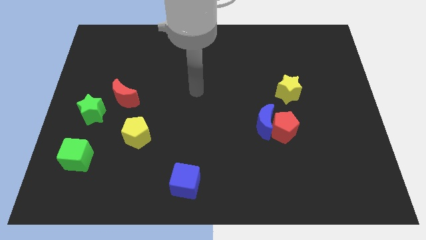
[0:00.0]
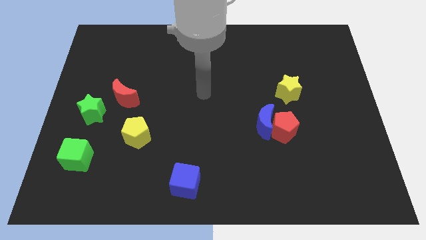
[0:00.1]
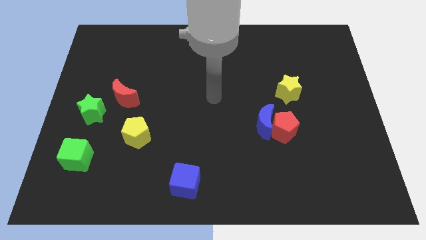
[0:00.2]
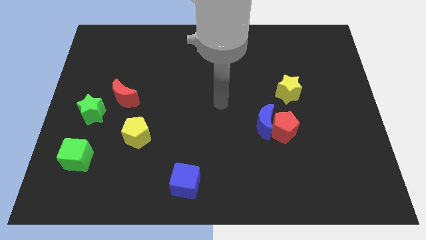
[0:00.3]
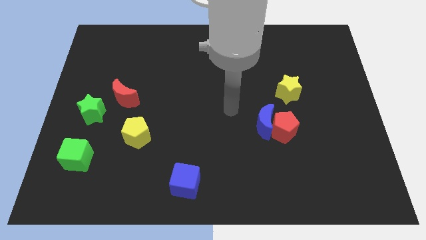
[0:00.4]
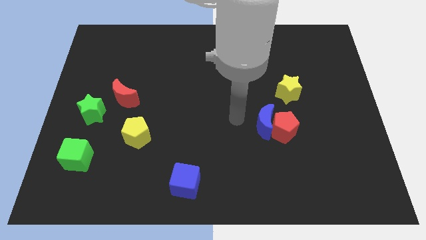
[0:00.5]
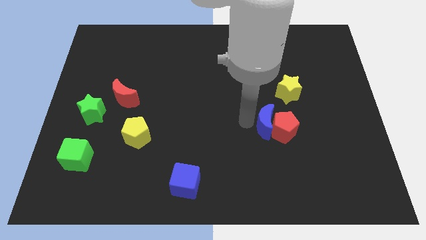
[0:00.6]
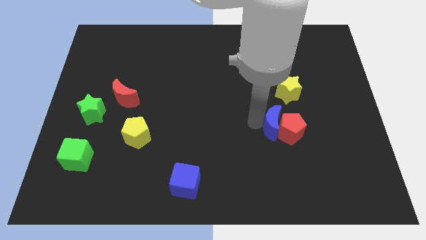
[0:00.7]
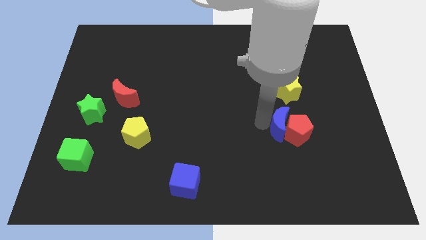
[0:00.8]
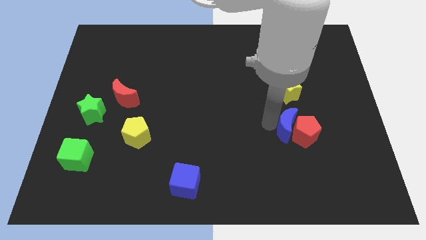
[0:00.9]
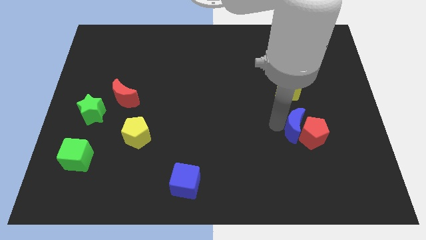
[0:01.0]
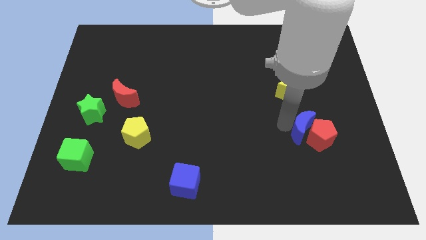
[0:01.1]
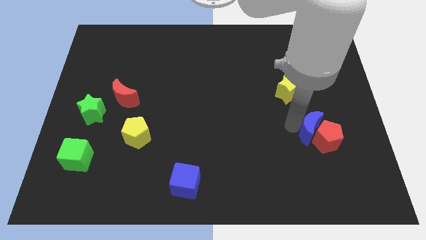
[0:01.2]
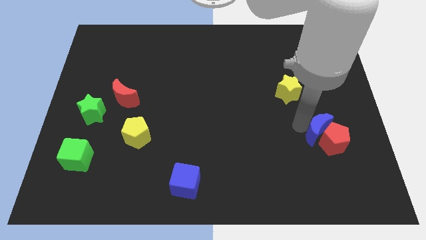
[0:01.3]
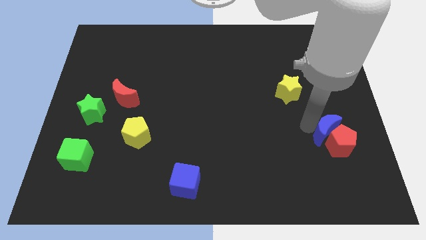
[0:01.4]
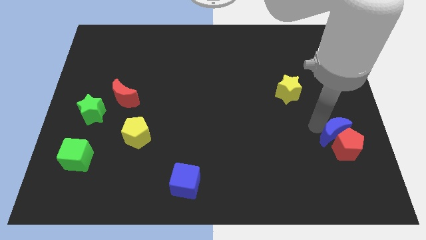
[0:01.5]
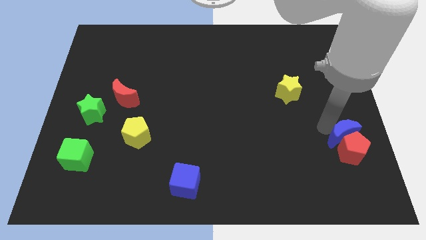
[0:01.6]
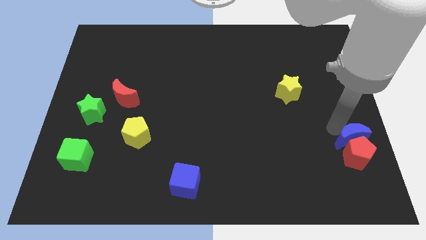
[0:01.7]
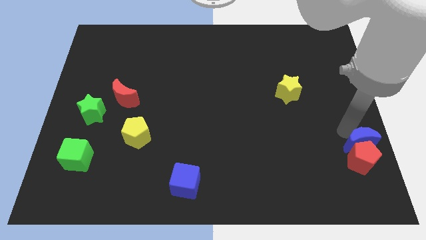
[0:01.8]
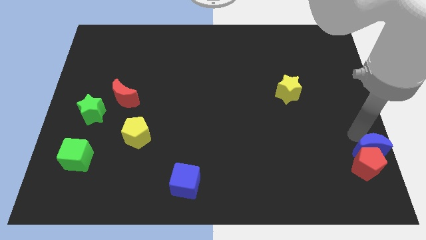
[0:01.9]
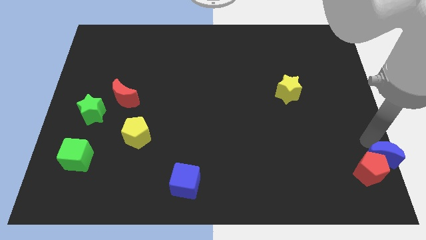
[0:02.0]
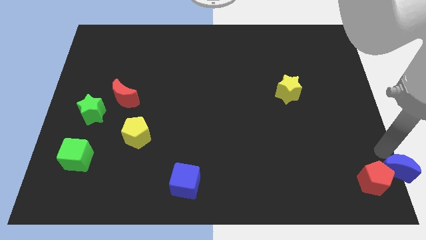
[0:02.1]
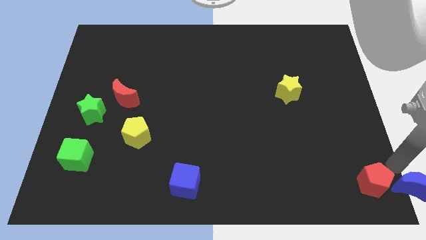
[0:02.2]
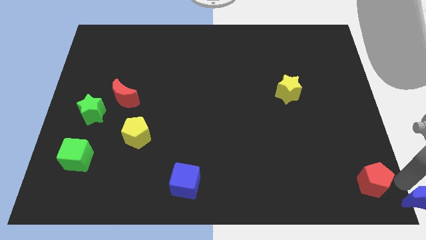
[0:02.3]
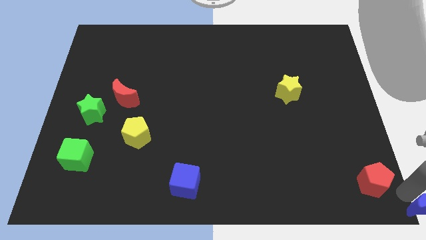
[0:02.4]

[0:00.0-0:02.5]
separate the red pentagon from the blue moon

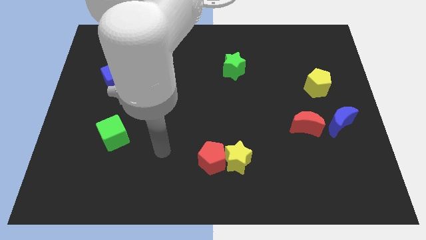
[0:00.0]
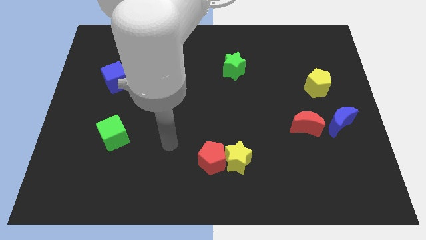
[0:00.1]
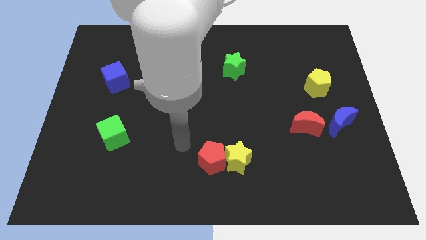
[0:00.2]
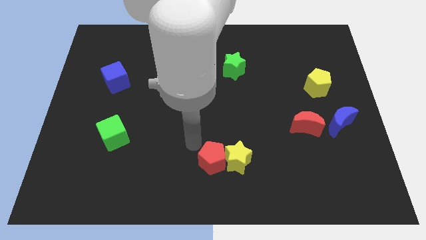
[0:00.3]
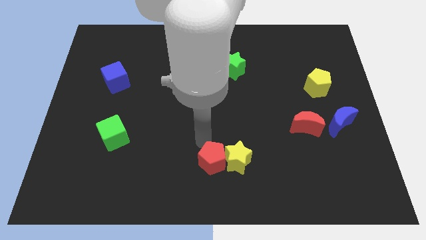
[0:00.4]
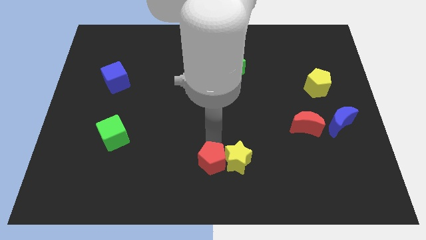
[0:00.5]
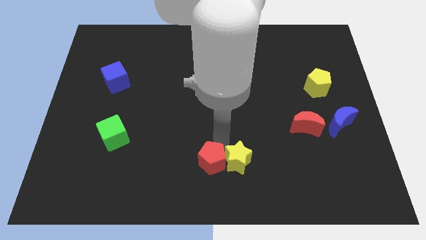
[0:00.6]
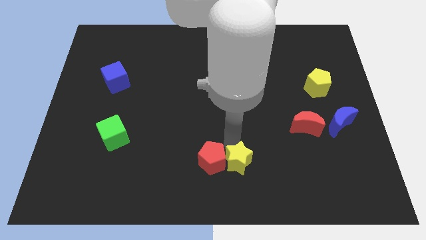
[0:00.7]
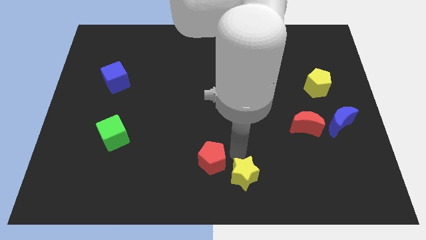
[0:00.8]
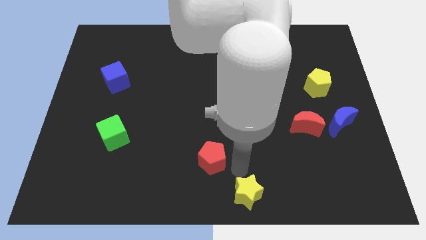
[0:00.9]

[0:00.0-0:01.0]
pull the red pentagon apart from the yellow star

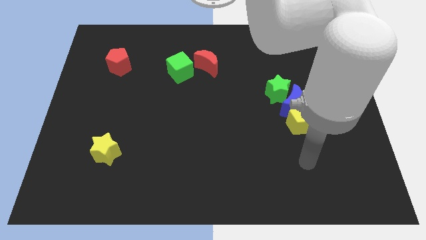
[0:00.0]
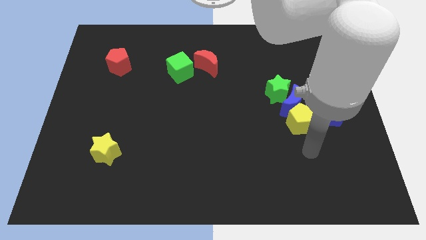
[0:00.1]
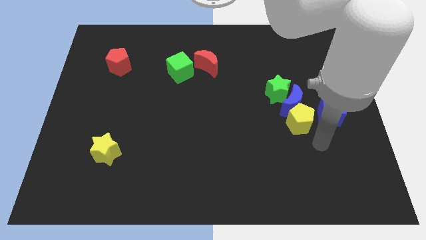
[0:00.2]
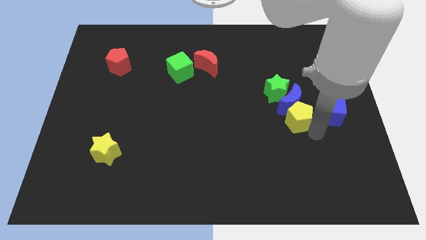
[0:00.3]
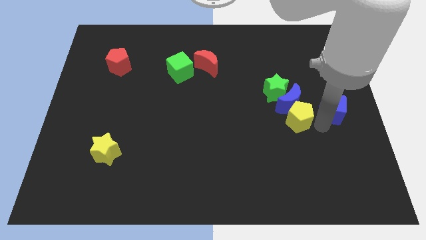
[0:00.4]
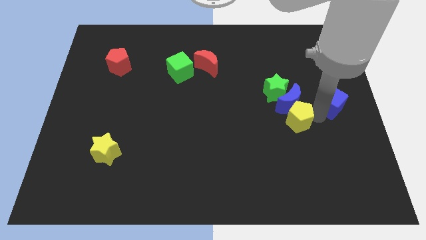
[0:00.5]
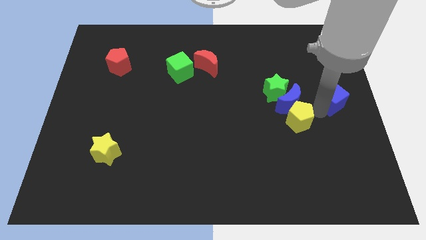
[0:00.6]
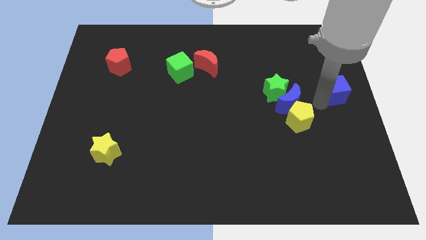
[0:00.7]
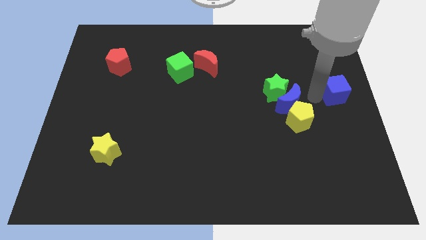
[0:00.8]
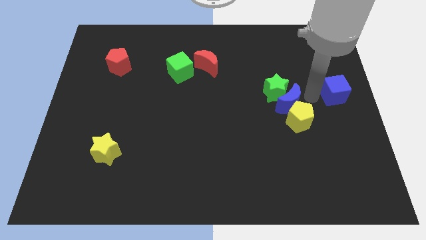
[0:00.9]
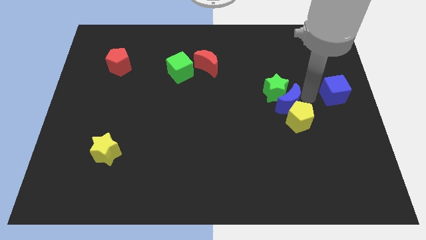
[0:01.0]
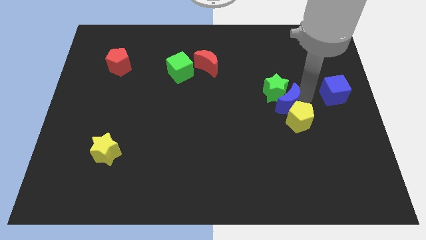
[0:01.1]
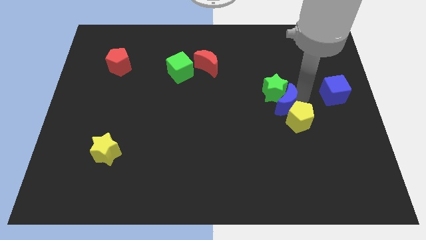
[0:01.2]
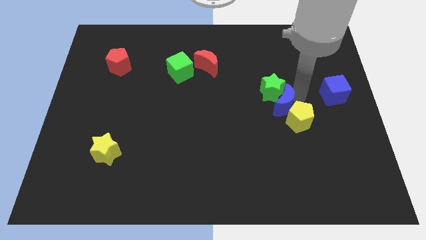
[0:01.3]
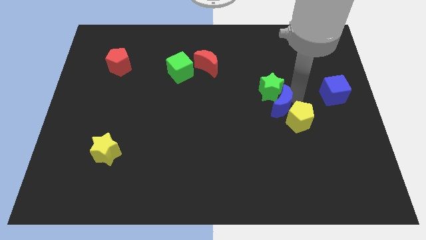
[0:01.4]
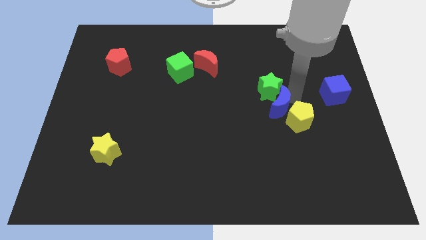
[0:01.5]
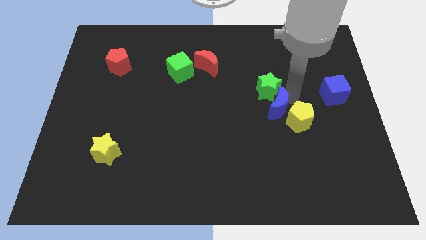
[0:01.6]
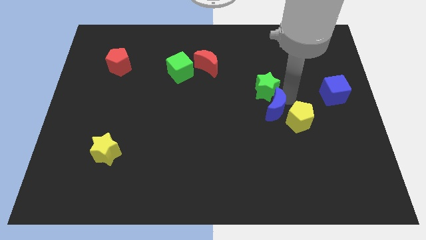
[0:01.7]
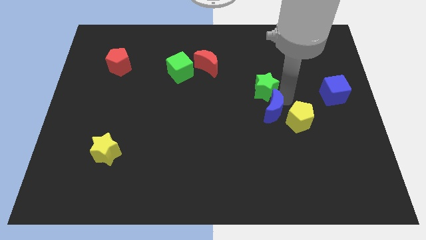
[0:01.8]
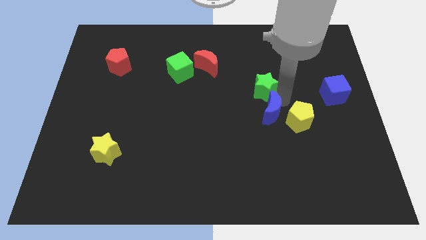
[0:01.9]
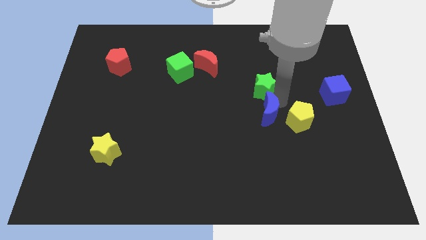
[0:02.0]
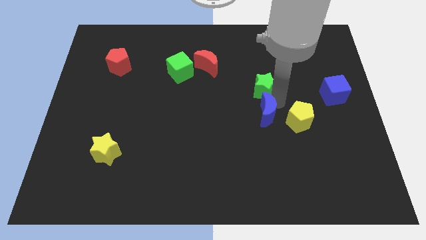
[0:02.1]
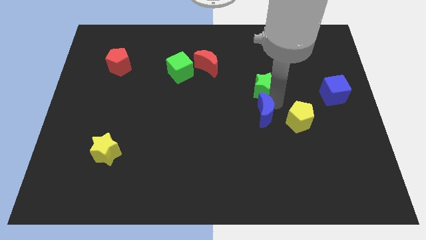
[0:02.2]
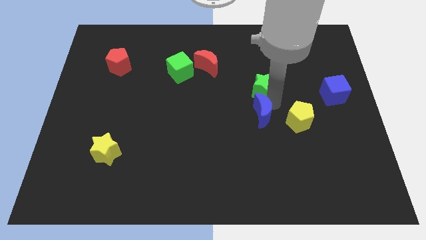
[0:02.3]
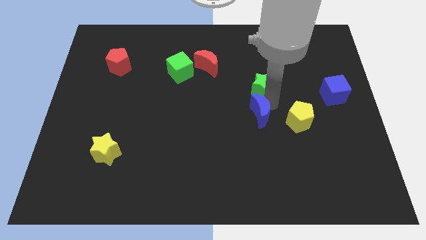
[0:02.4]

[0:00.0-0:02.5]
pull the blue moon apart from the green star, yellow pentagon, and blue cube

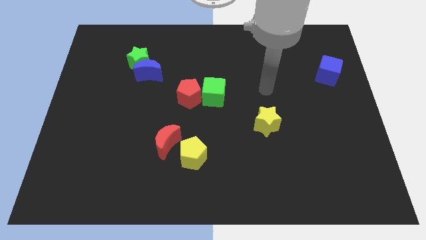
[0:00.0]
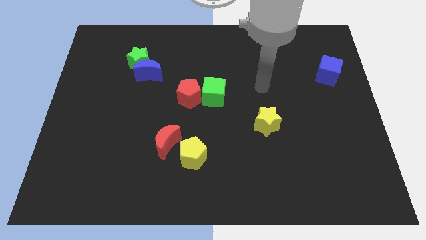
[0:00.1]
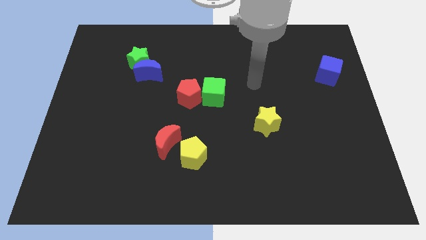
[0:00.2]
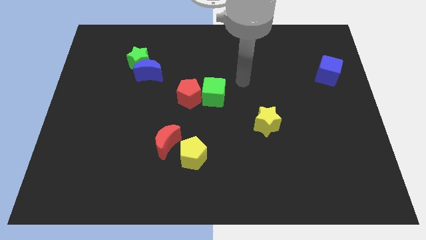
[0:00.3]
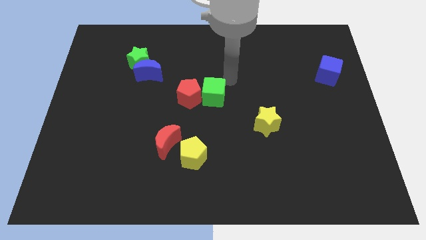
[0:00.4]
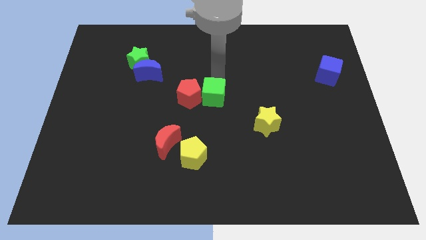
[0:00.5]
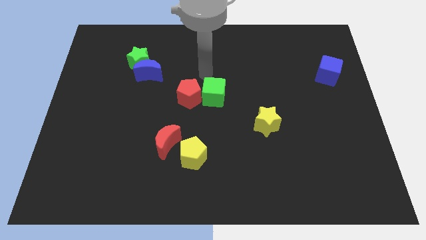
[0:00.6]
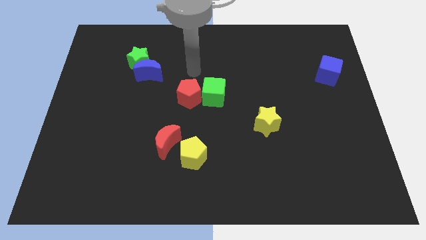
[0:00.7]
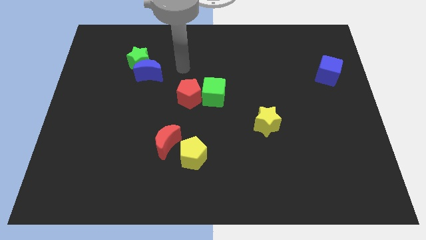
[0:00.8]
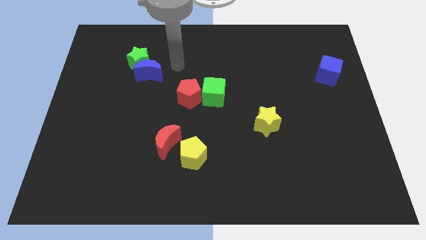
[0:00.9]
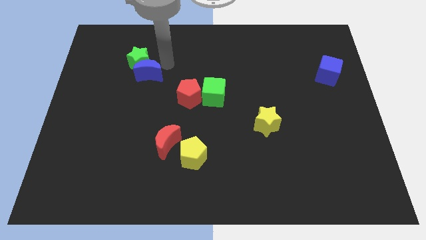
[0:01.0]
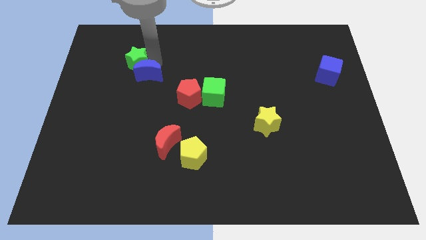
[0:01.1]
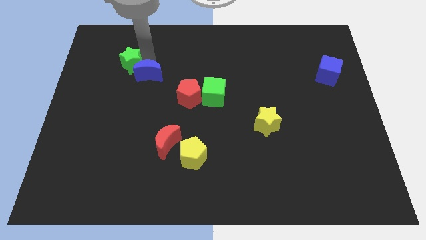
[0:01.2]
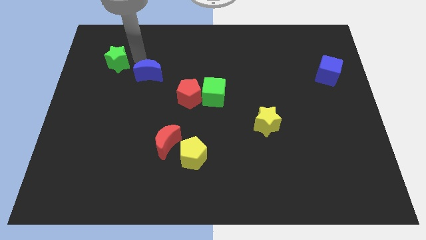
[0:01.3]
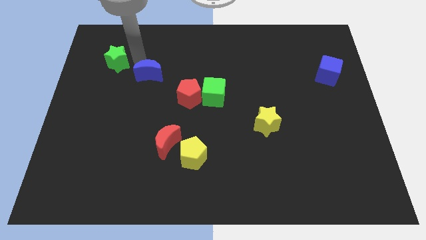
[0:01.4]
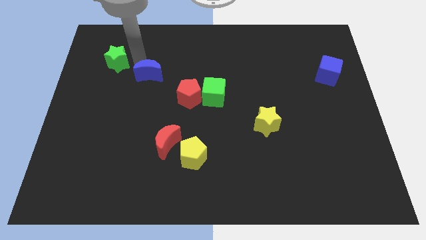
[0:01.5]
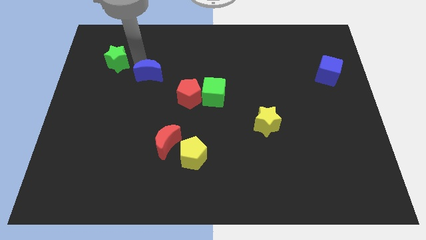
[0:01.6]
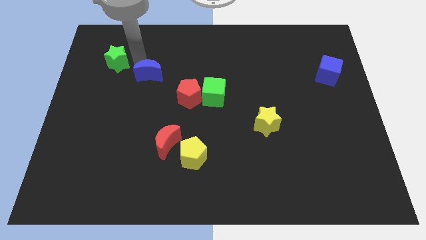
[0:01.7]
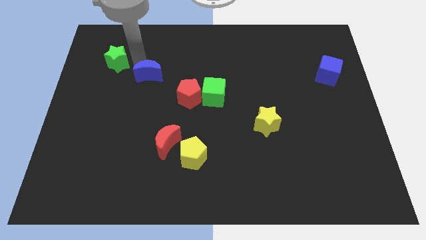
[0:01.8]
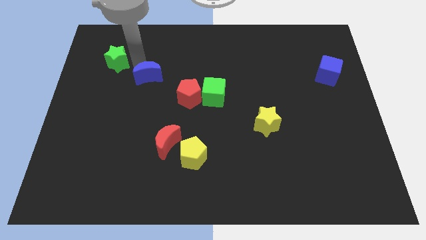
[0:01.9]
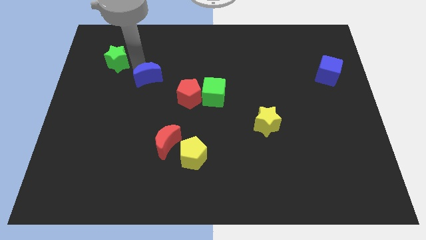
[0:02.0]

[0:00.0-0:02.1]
move the blue moon away from the green star

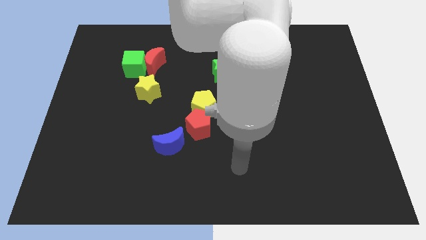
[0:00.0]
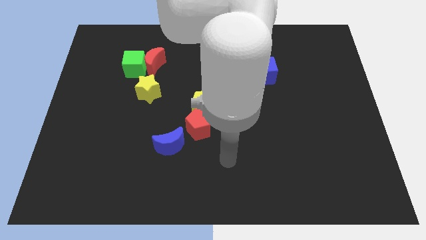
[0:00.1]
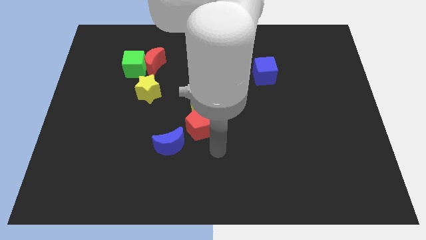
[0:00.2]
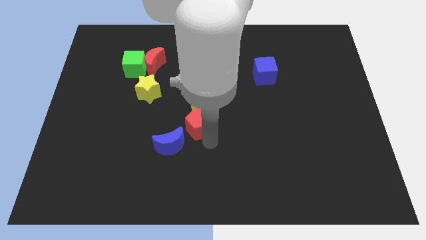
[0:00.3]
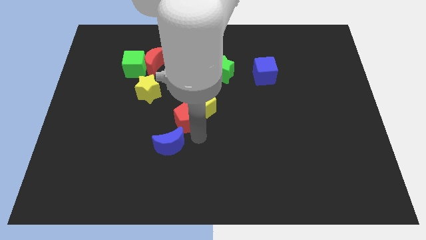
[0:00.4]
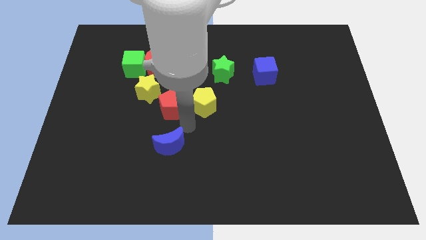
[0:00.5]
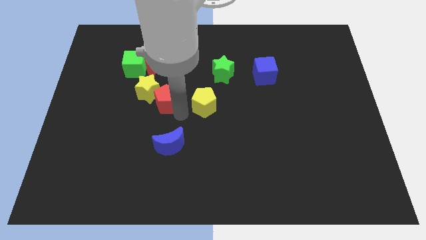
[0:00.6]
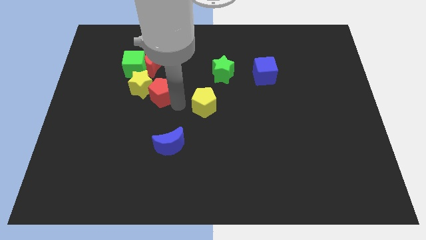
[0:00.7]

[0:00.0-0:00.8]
separate the yellow pentagon from the red pentagon

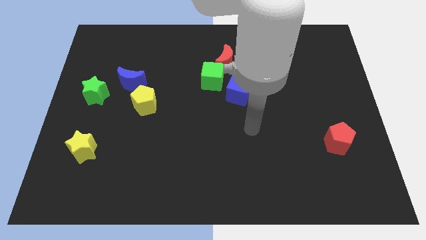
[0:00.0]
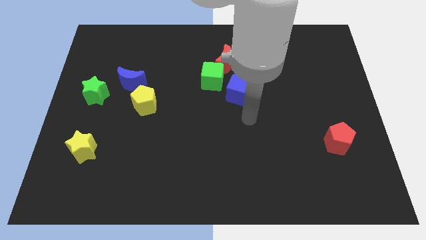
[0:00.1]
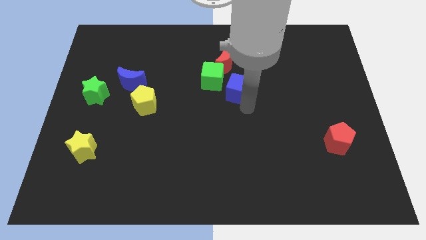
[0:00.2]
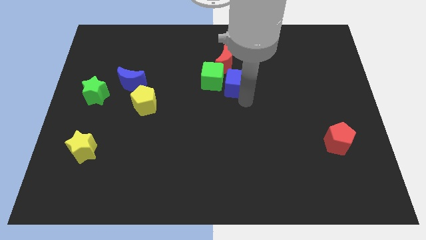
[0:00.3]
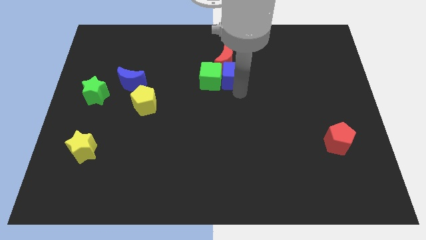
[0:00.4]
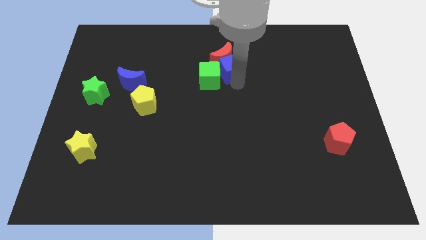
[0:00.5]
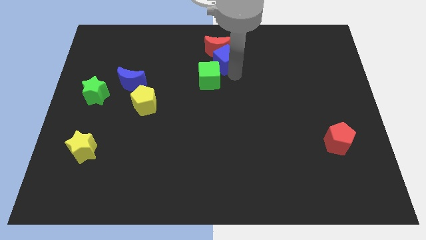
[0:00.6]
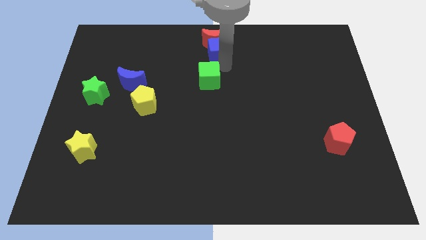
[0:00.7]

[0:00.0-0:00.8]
separate the green cube from the red moon and blue cube
